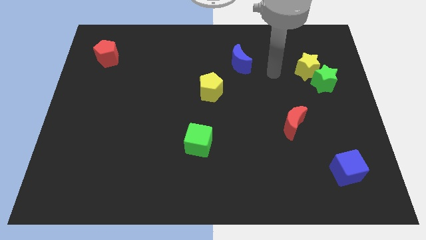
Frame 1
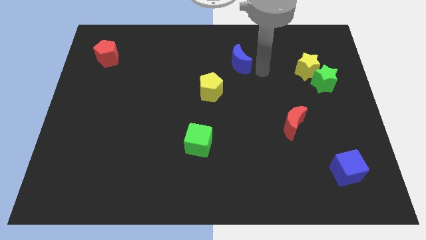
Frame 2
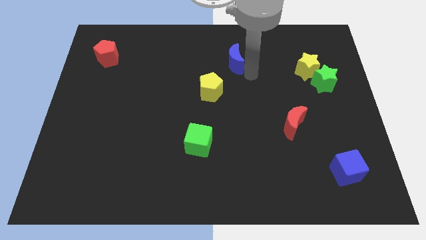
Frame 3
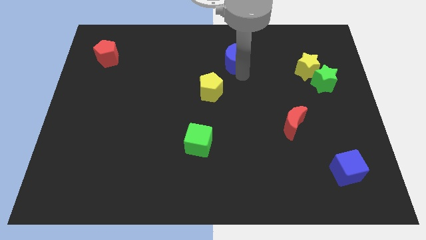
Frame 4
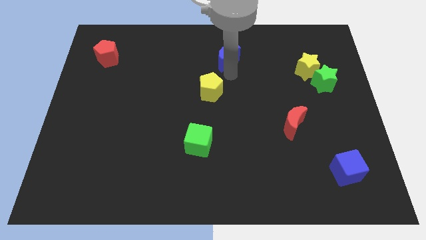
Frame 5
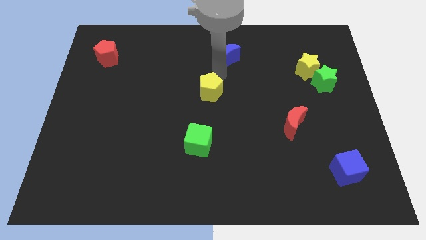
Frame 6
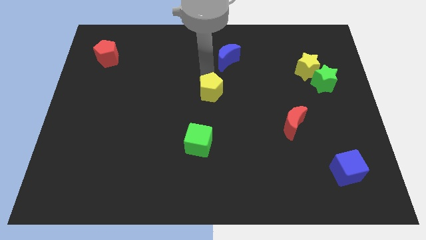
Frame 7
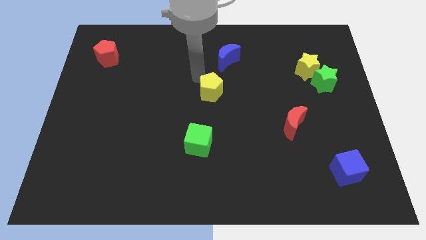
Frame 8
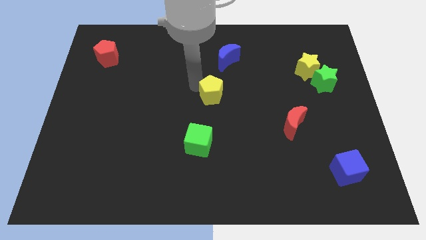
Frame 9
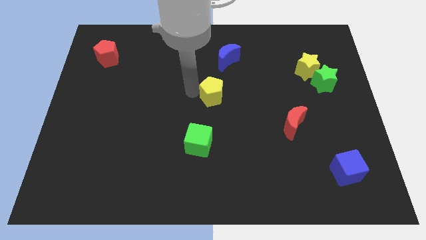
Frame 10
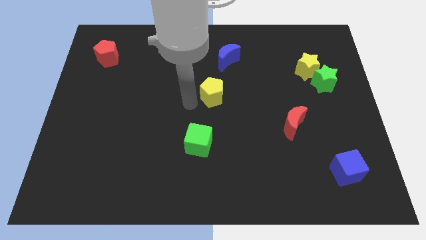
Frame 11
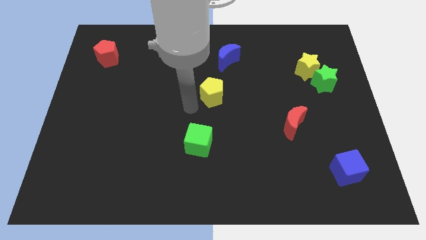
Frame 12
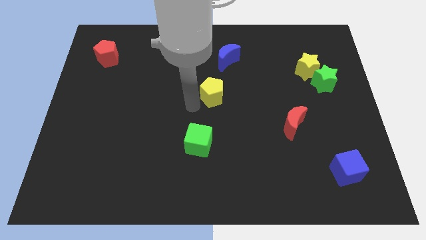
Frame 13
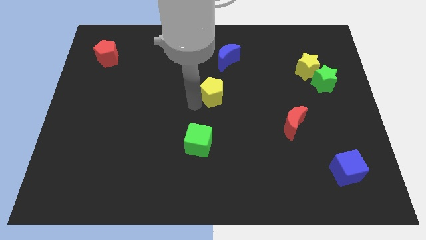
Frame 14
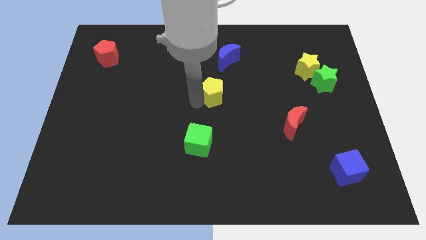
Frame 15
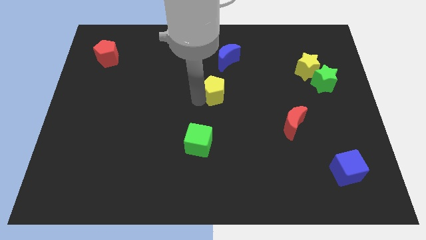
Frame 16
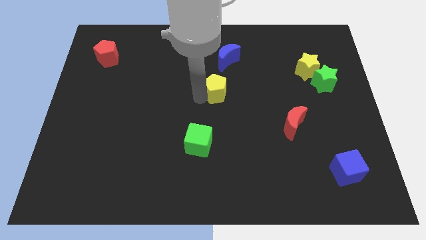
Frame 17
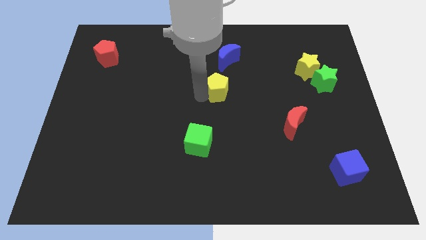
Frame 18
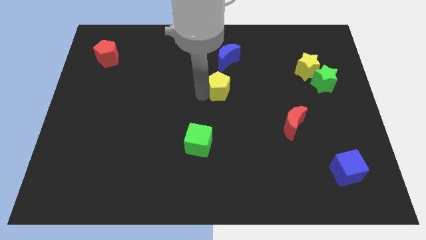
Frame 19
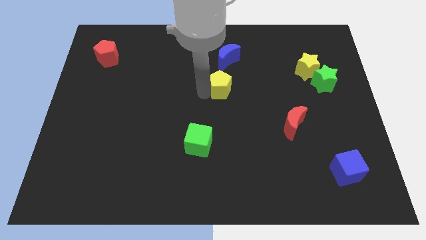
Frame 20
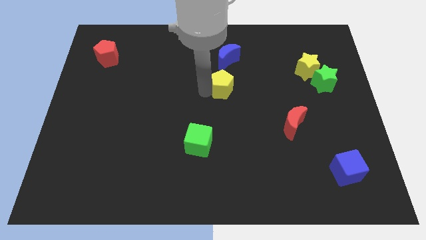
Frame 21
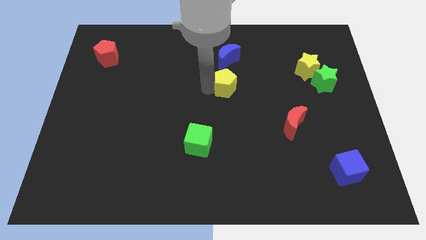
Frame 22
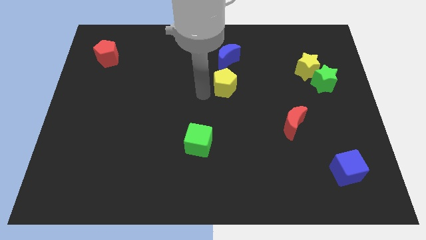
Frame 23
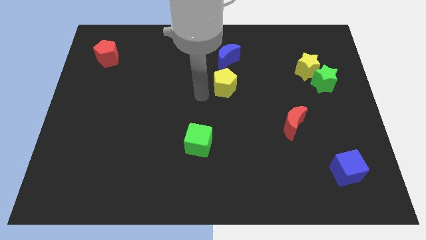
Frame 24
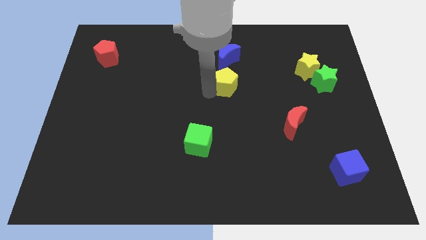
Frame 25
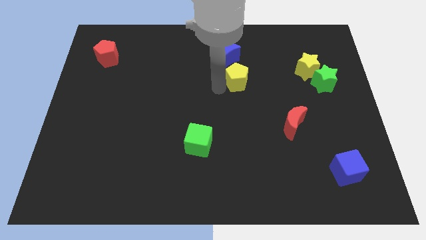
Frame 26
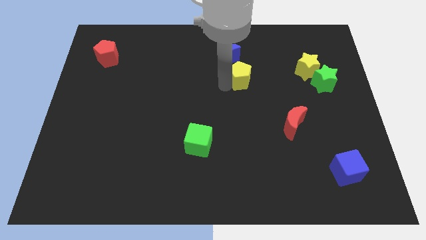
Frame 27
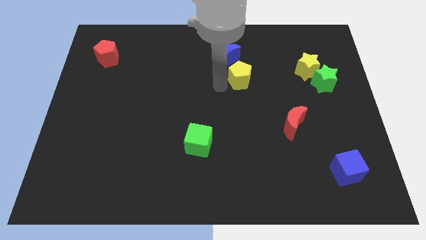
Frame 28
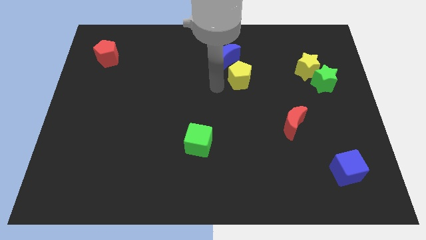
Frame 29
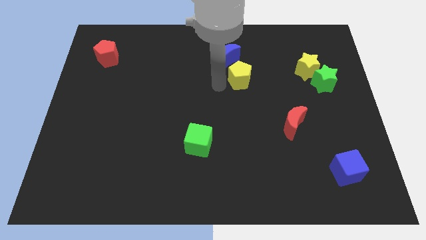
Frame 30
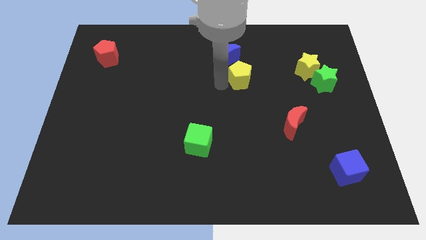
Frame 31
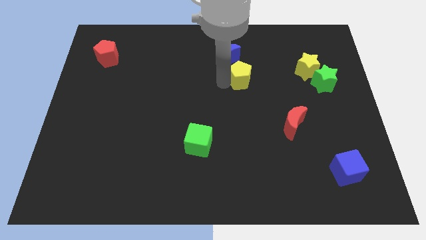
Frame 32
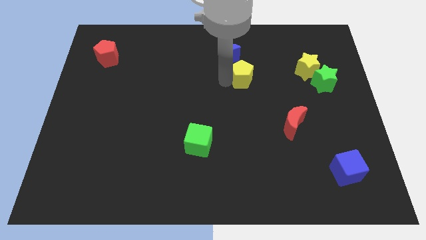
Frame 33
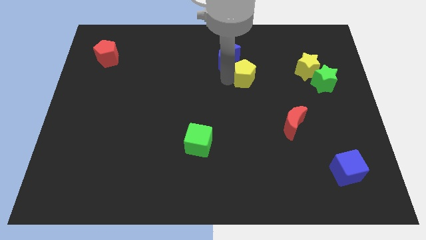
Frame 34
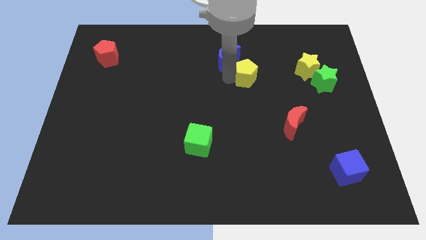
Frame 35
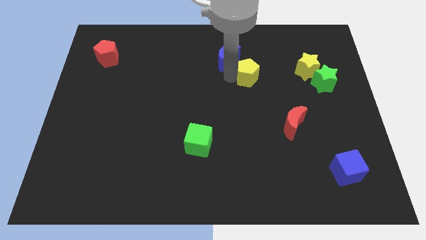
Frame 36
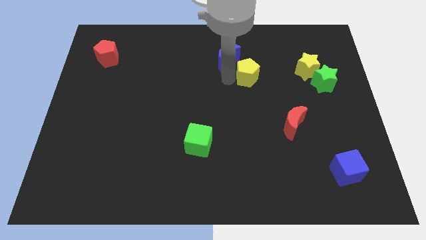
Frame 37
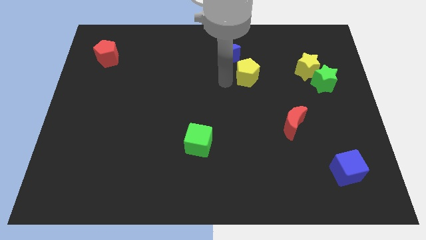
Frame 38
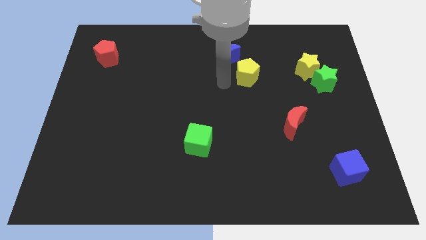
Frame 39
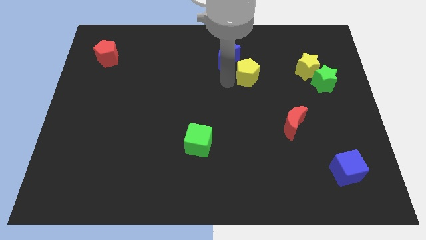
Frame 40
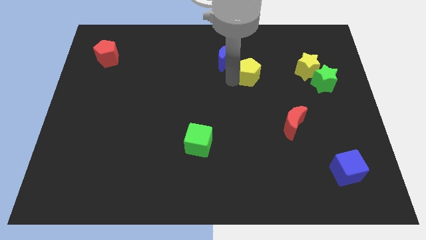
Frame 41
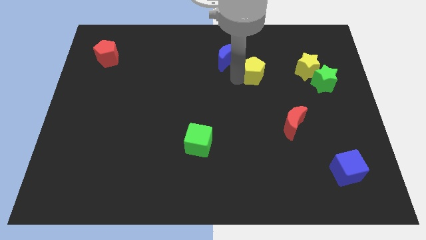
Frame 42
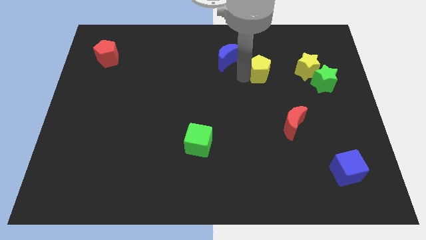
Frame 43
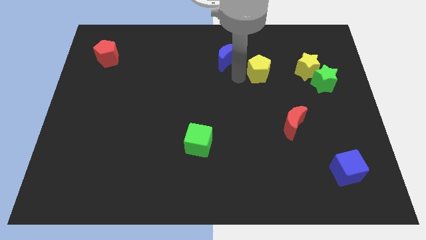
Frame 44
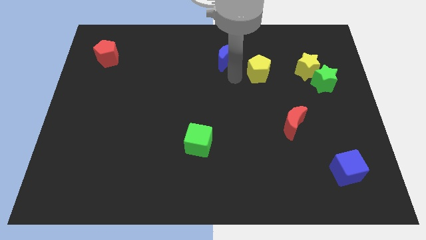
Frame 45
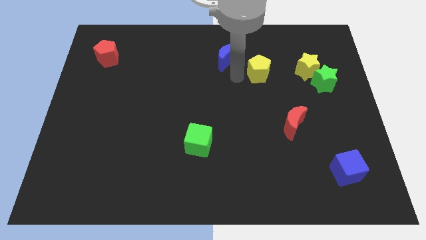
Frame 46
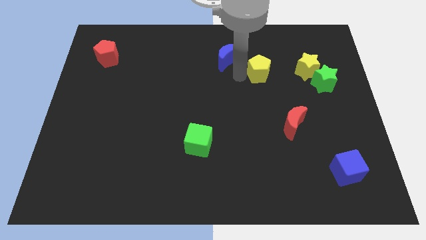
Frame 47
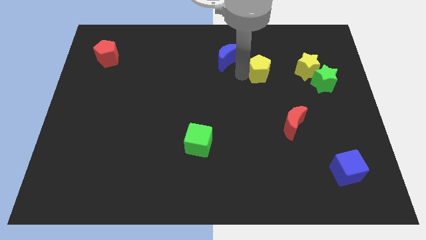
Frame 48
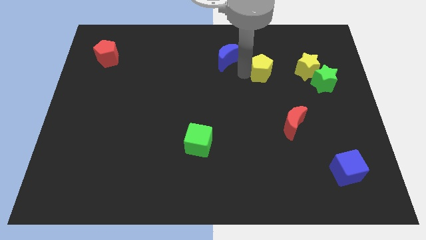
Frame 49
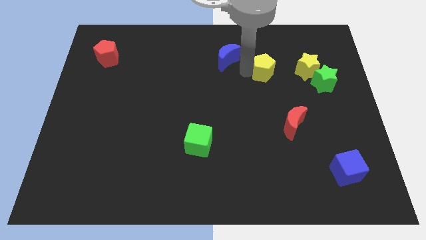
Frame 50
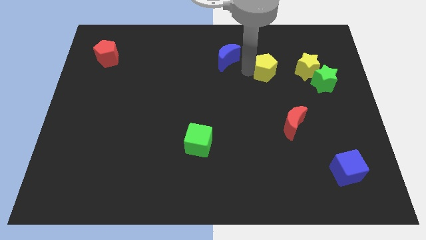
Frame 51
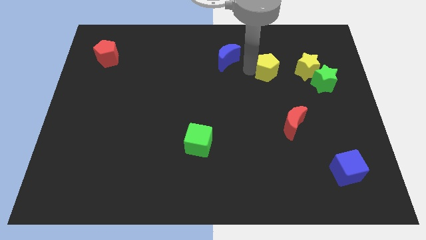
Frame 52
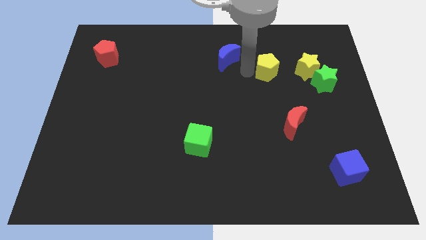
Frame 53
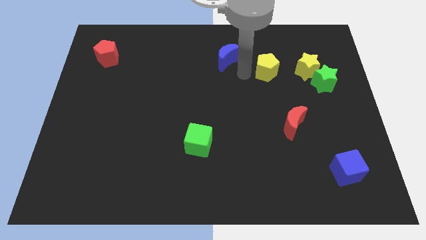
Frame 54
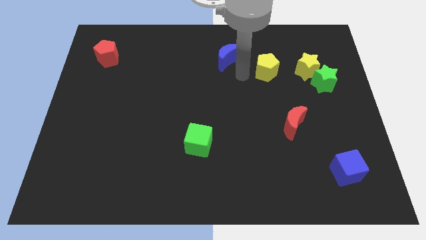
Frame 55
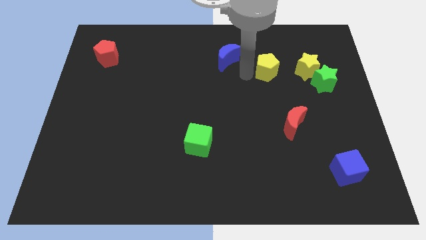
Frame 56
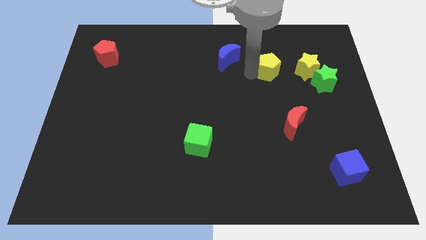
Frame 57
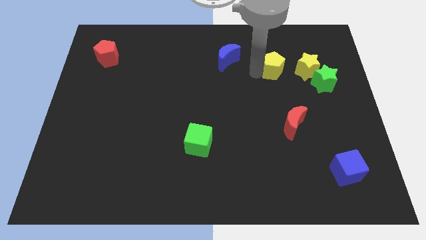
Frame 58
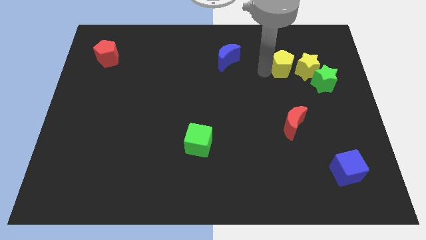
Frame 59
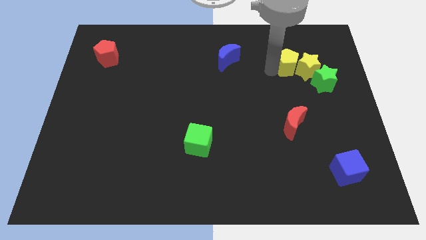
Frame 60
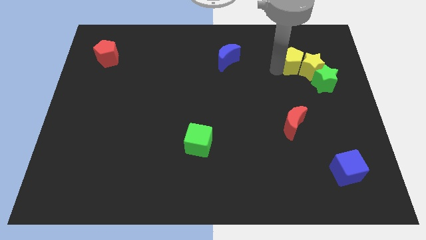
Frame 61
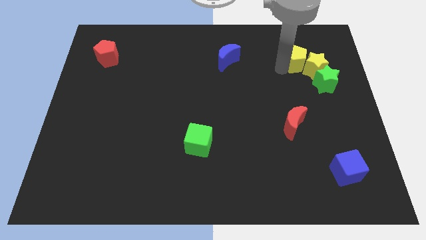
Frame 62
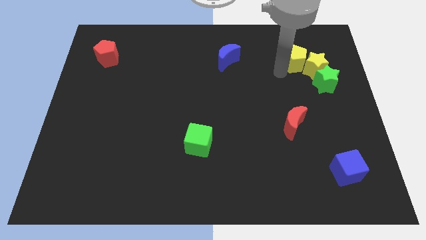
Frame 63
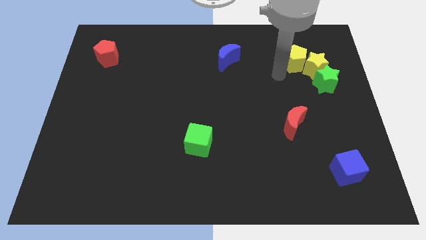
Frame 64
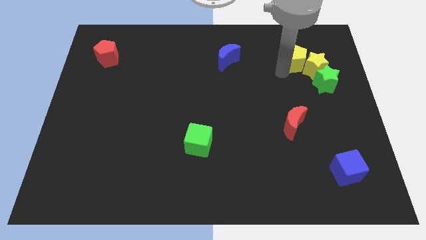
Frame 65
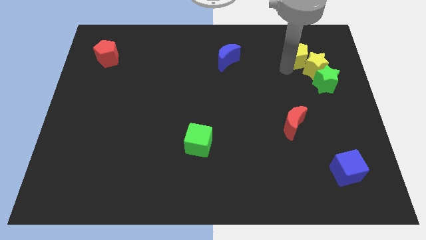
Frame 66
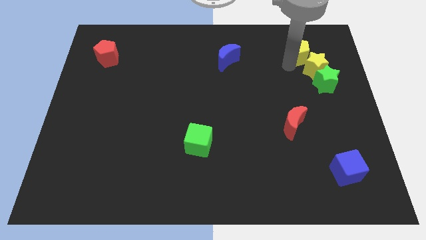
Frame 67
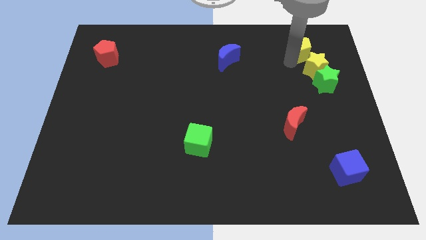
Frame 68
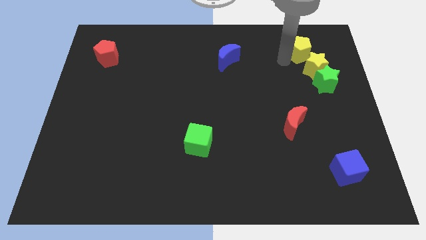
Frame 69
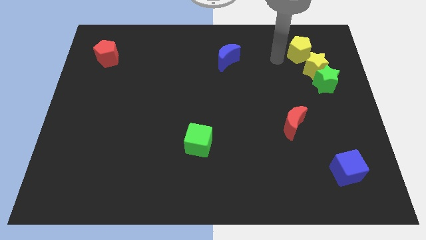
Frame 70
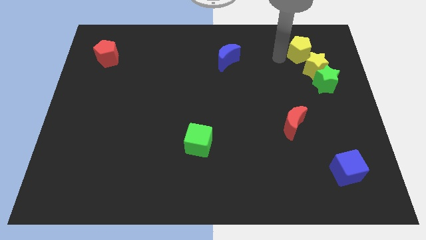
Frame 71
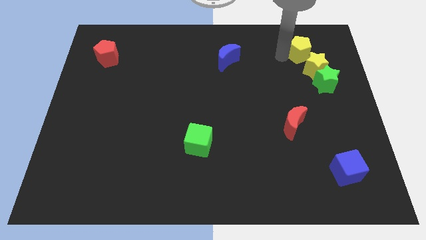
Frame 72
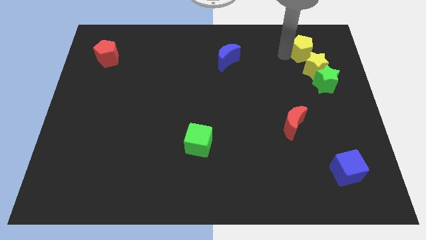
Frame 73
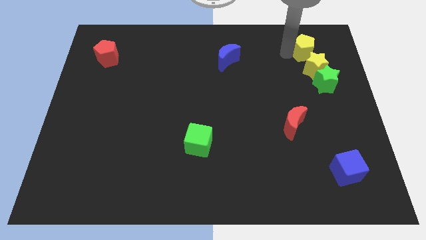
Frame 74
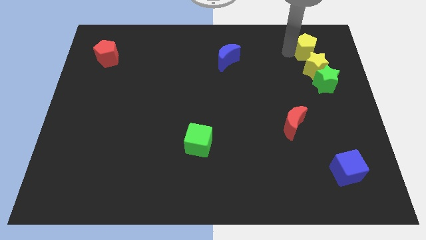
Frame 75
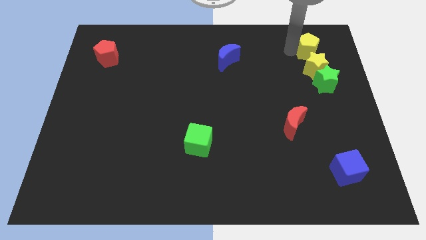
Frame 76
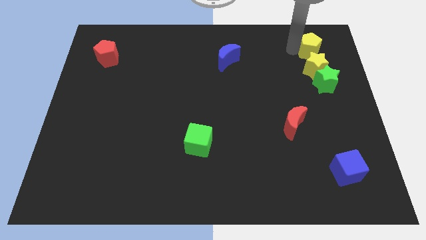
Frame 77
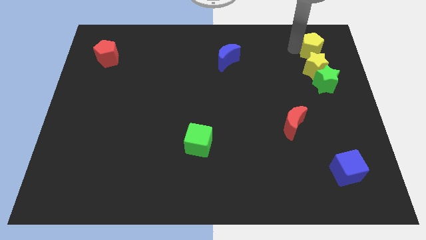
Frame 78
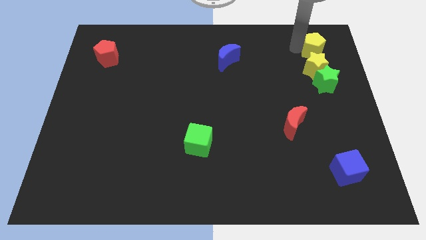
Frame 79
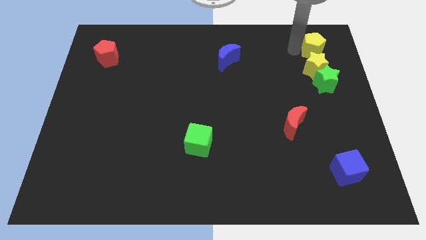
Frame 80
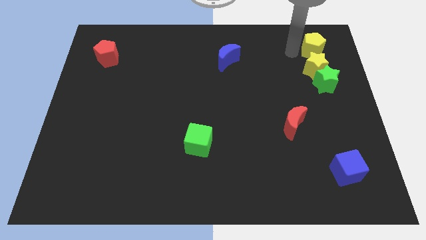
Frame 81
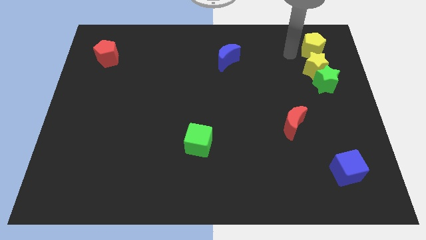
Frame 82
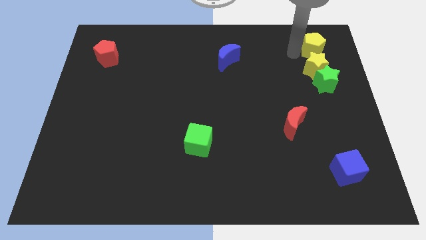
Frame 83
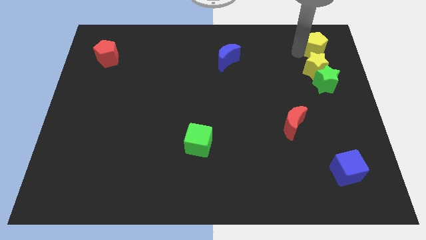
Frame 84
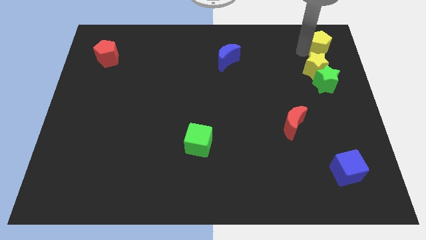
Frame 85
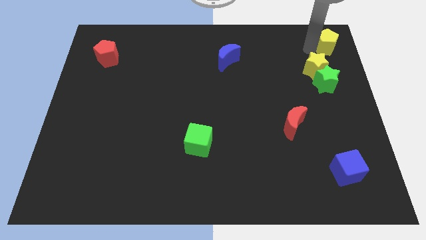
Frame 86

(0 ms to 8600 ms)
move the yellow pentagon to the top right of the board
